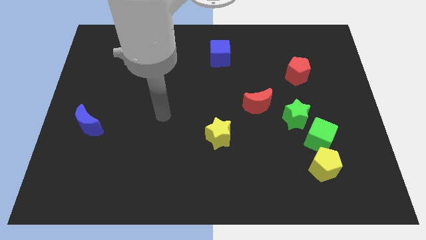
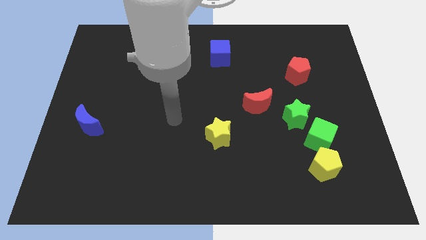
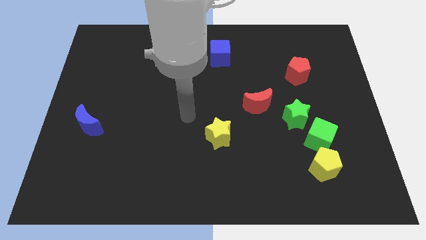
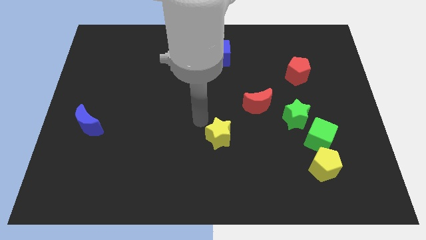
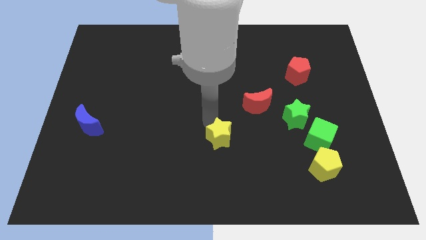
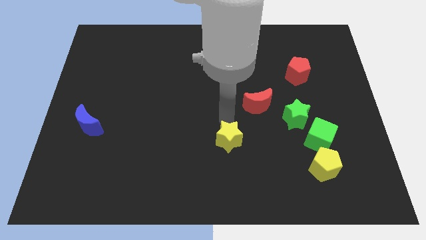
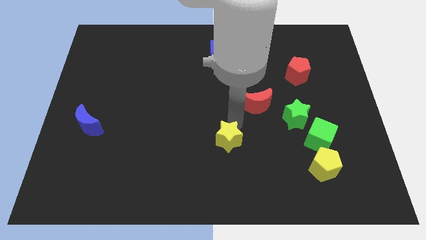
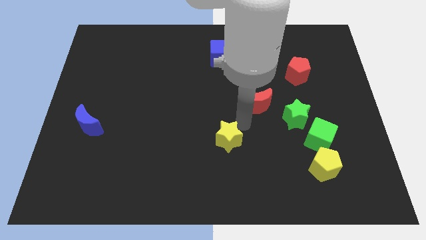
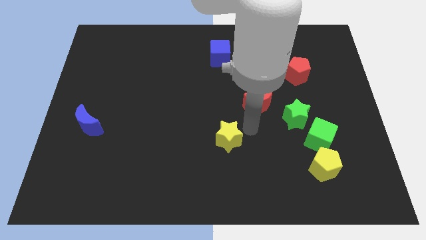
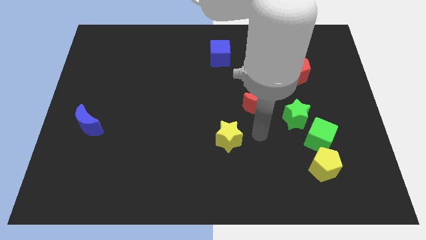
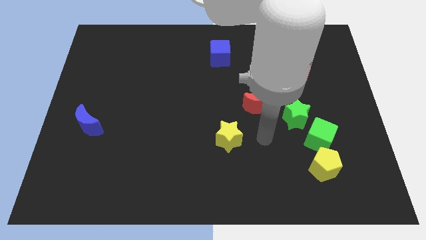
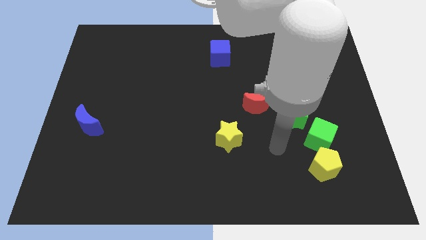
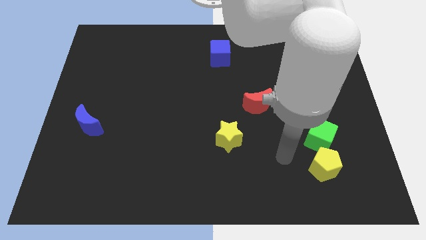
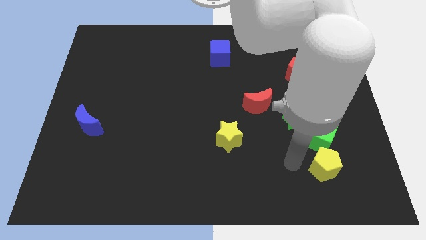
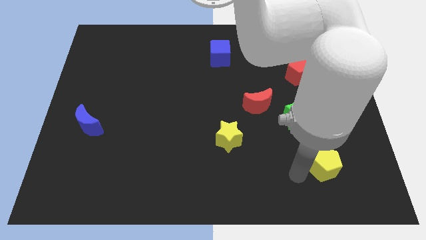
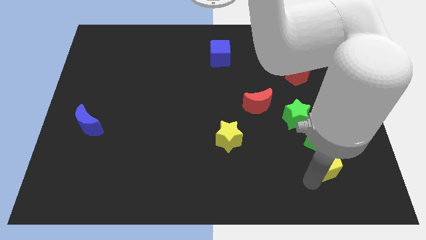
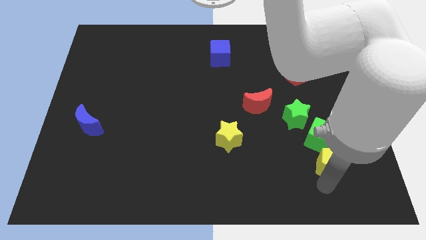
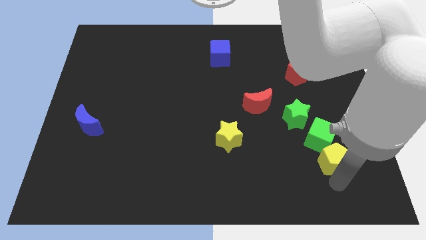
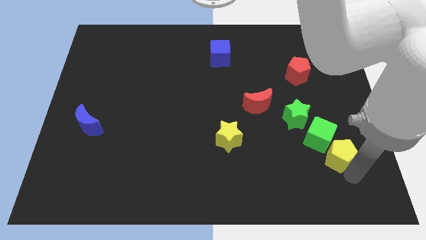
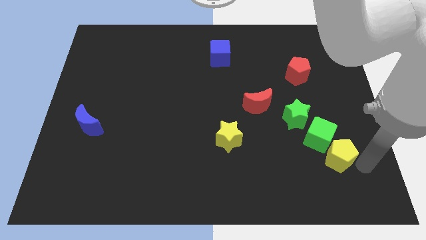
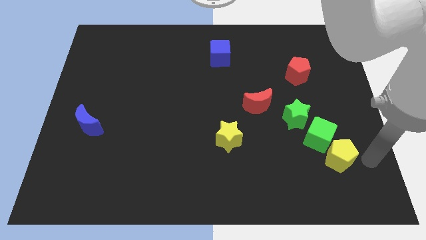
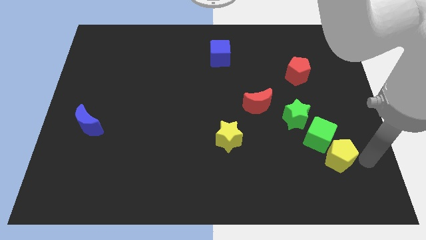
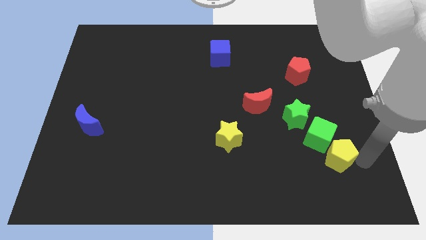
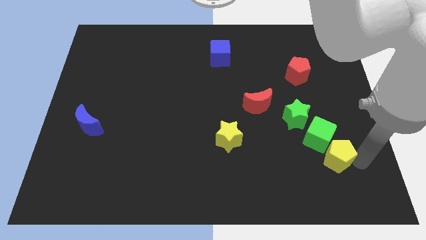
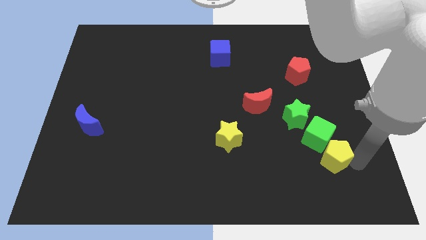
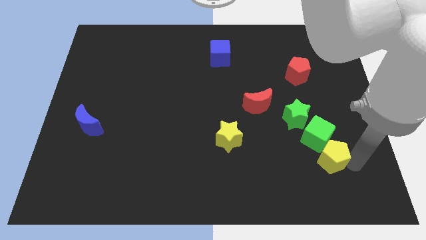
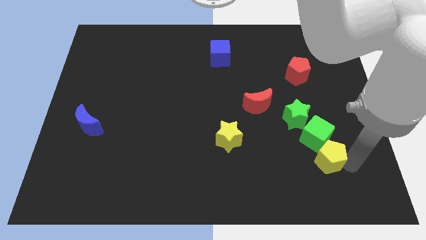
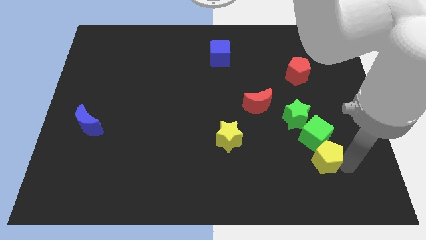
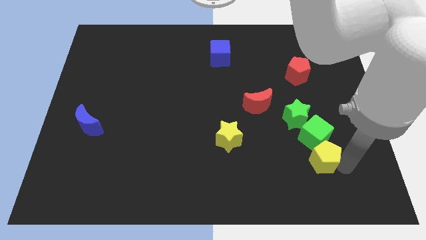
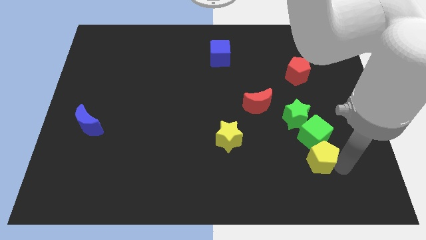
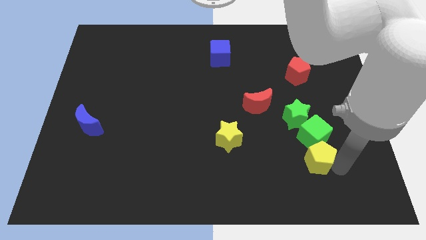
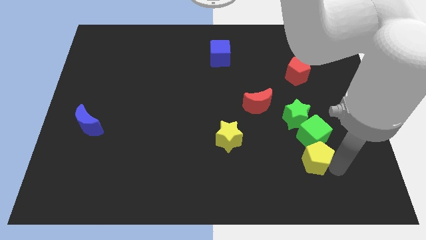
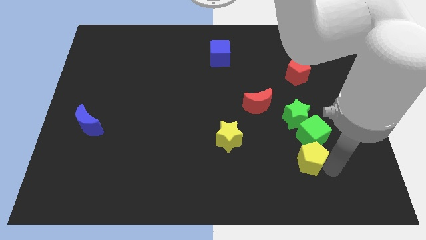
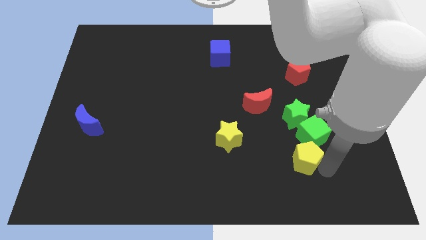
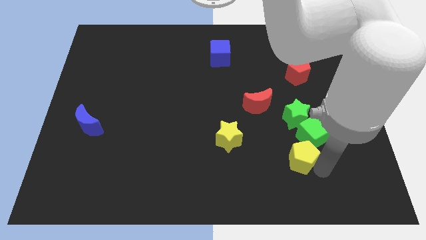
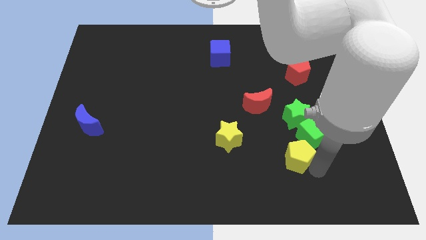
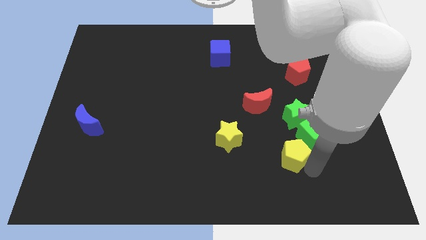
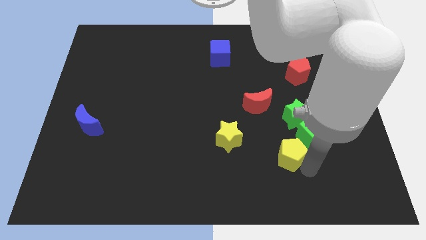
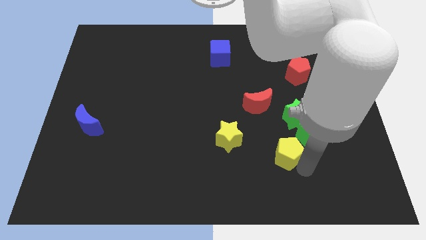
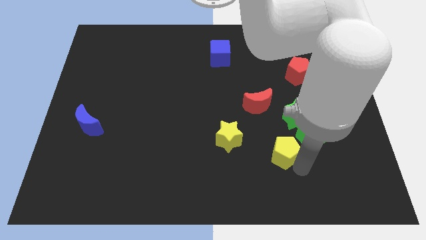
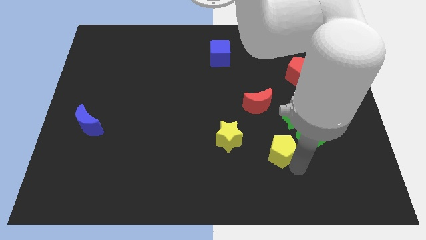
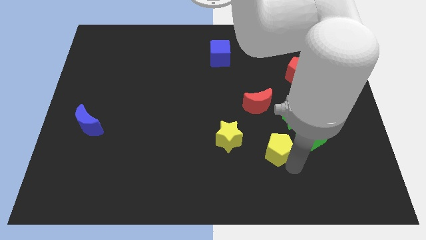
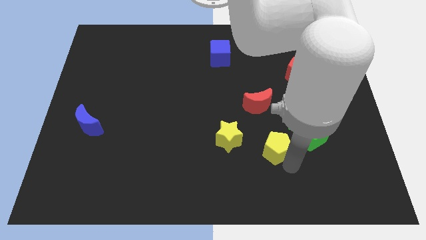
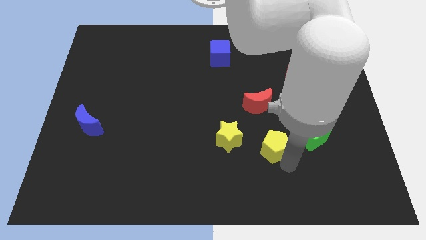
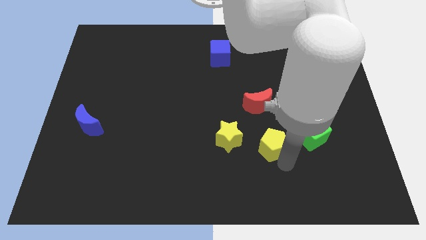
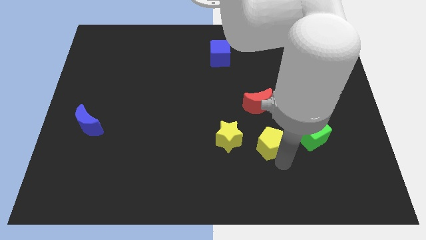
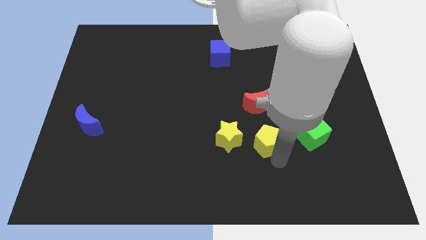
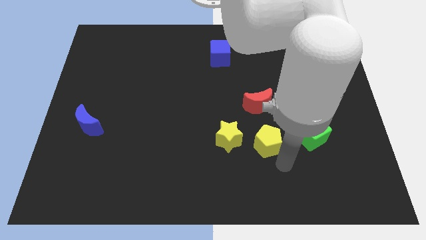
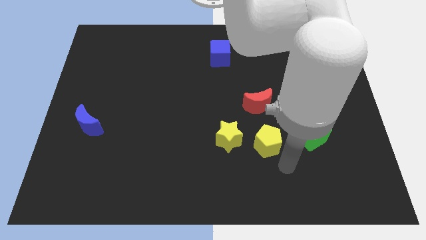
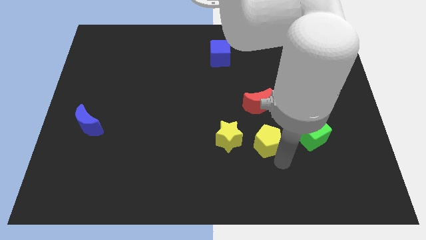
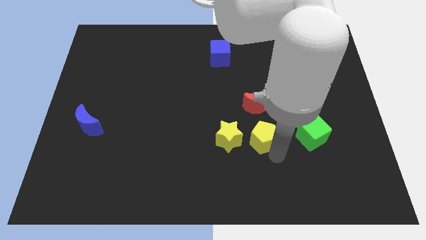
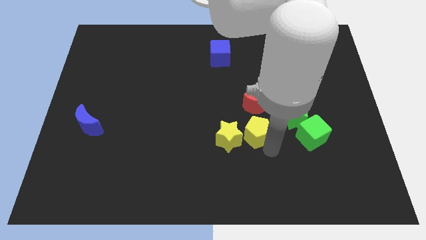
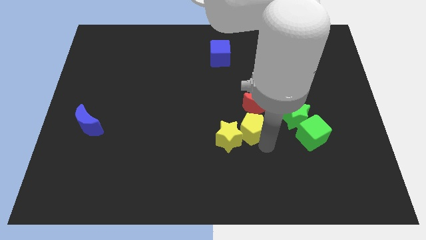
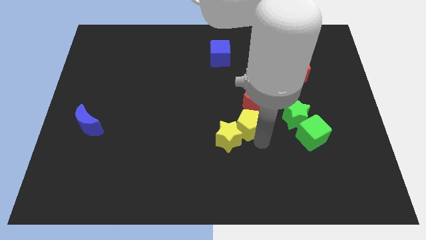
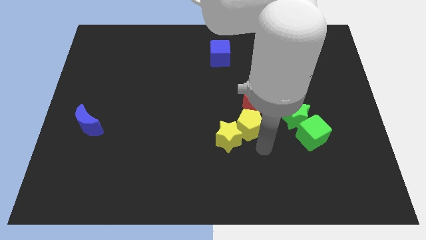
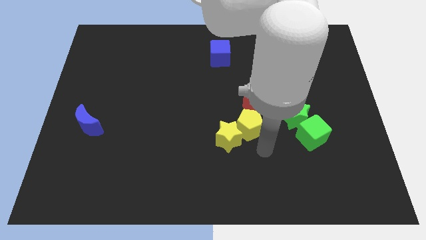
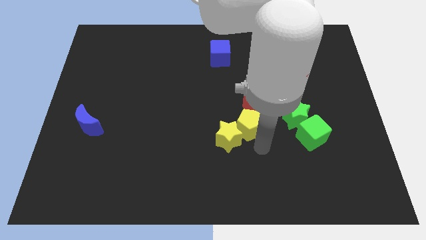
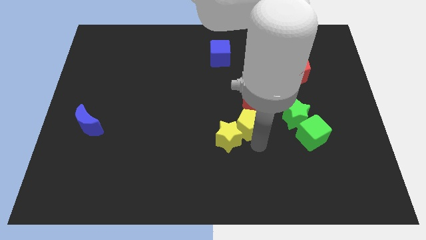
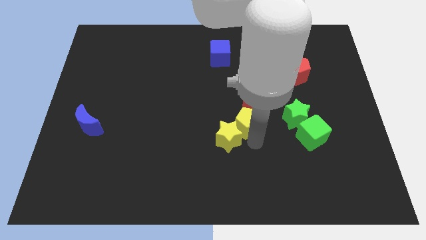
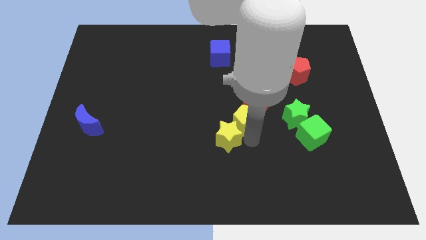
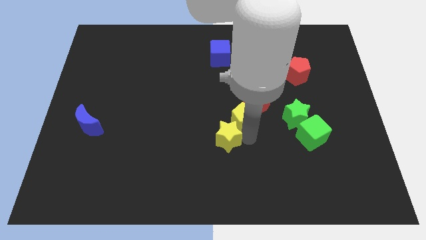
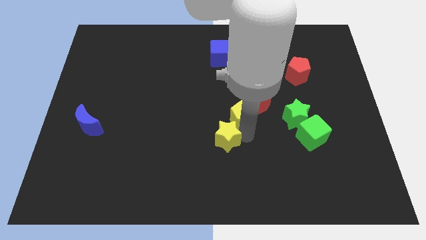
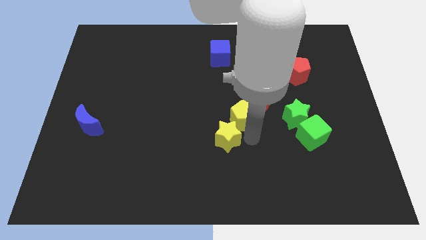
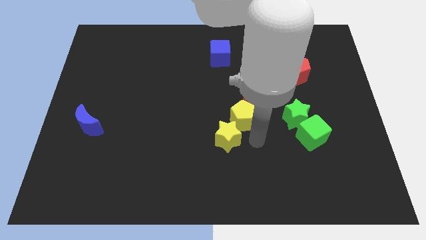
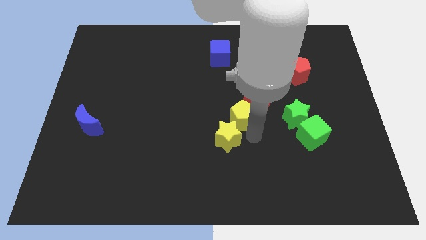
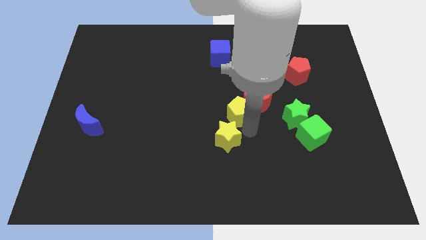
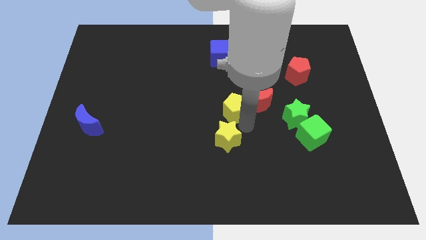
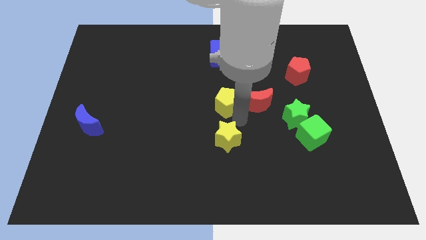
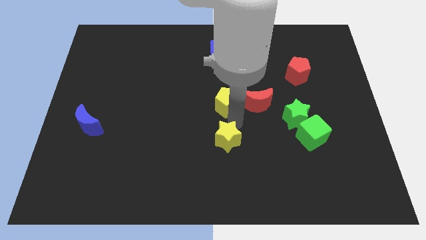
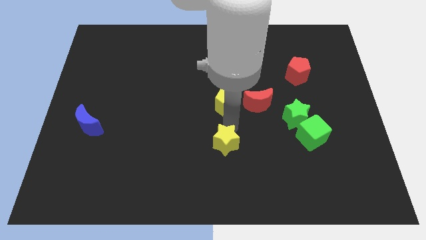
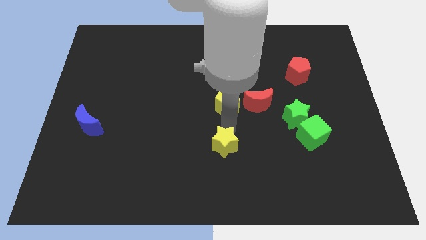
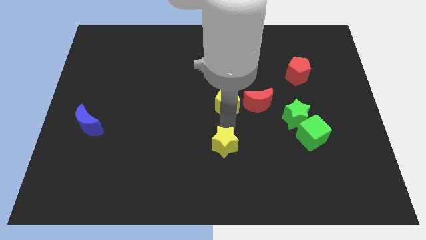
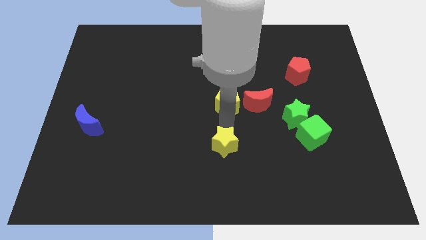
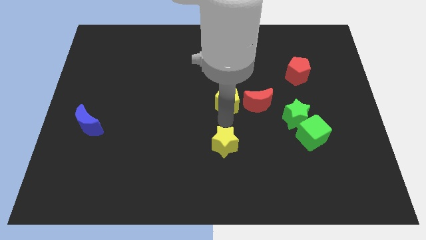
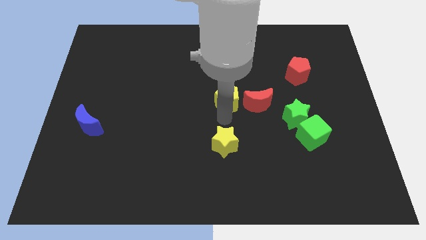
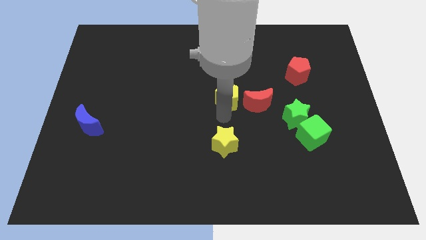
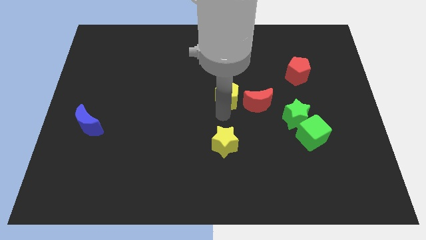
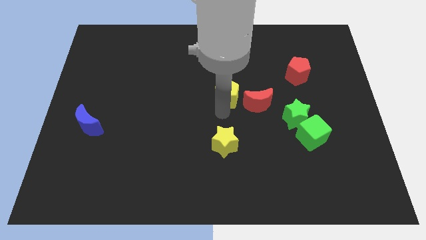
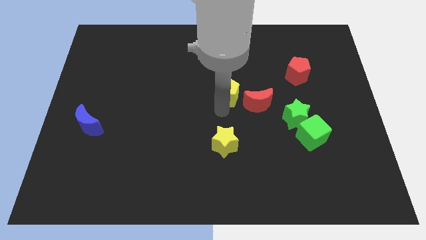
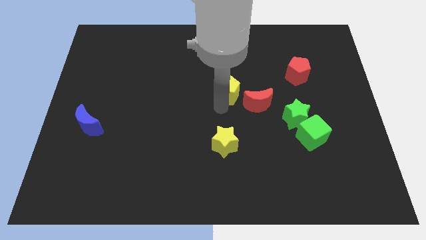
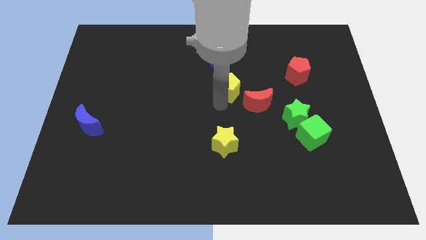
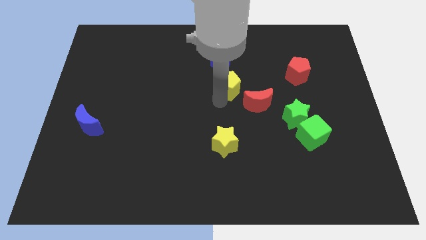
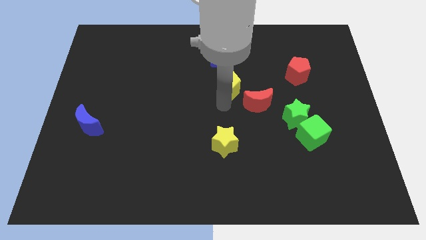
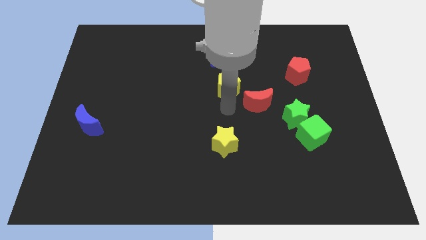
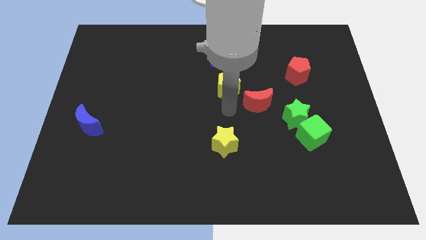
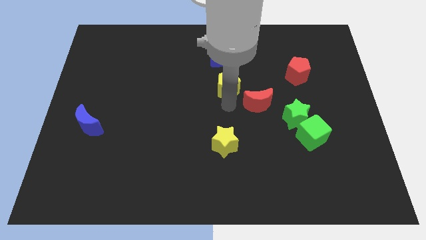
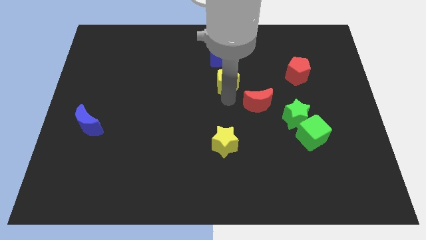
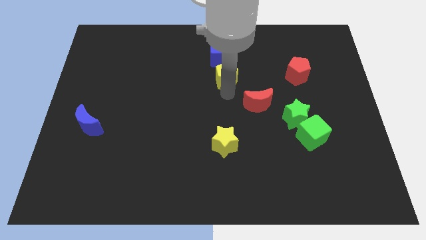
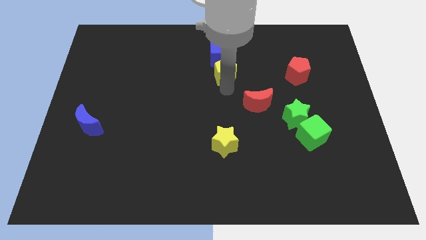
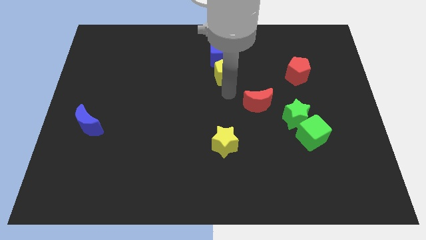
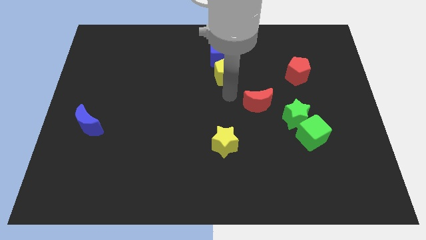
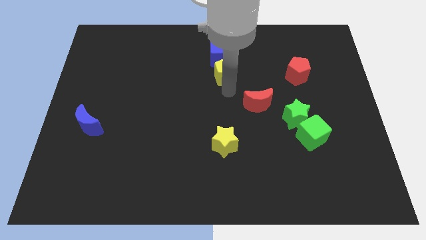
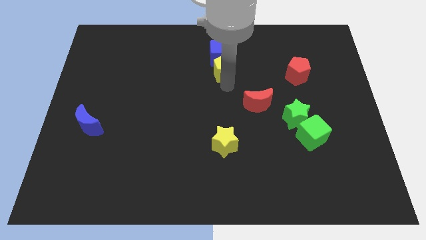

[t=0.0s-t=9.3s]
move the yellow pentagon next to the blue cube
